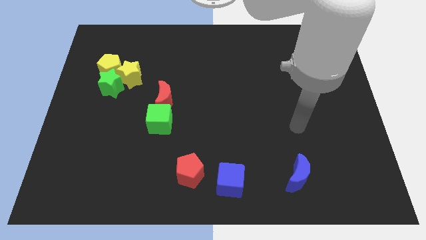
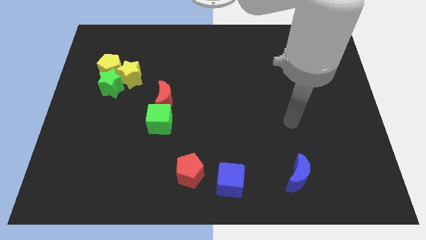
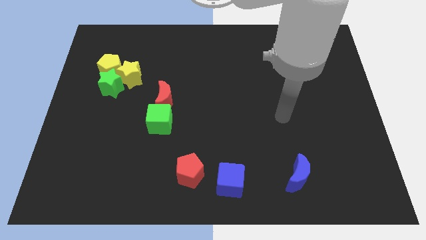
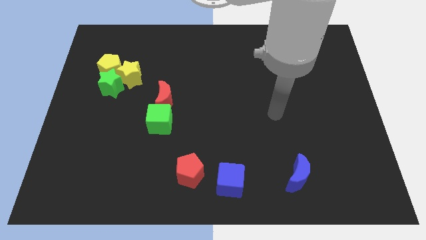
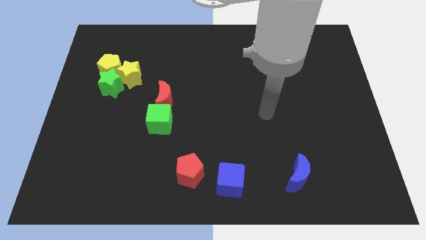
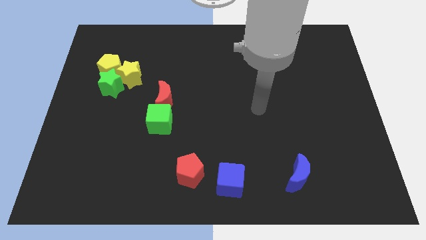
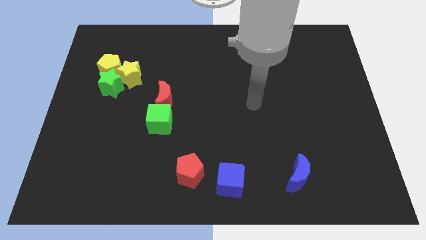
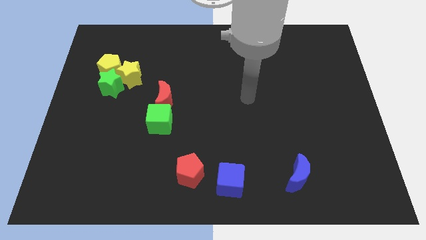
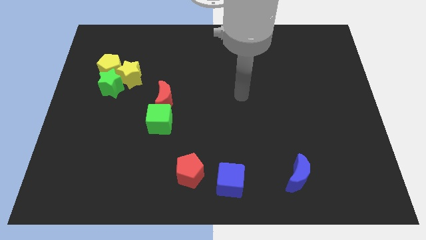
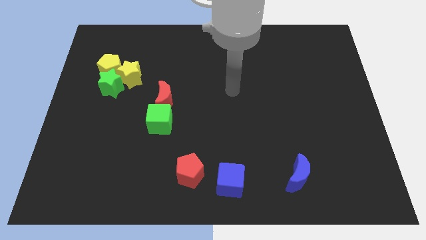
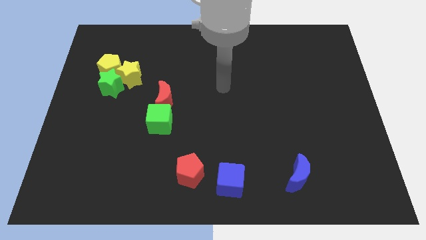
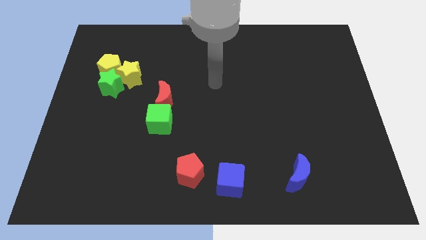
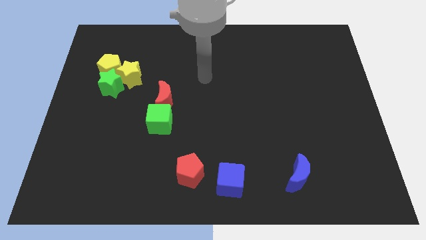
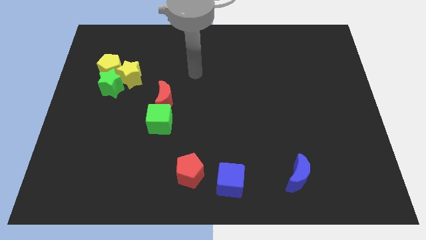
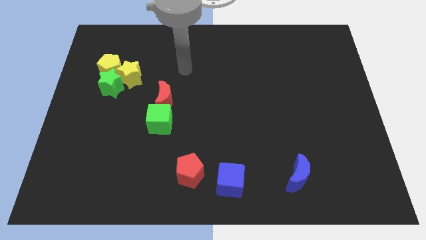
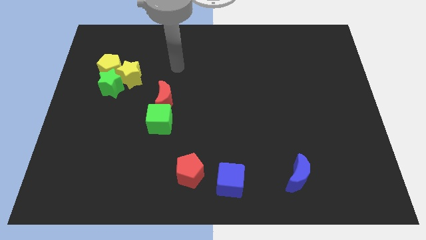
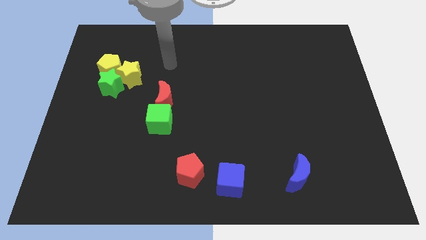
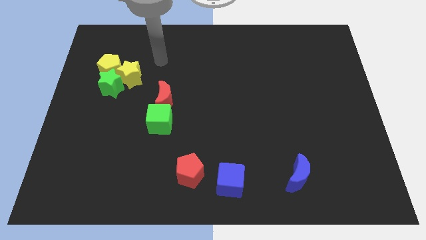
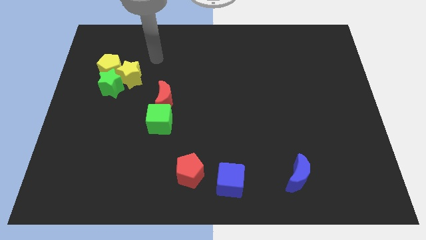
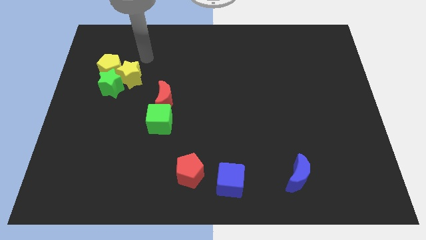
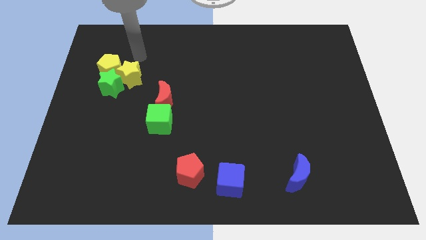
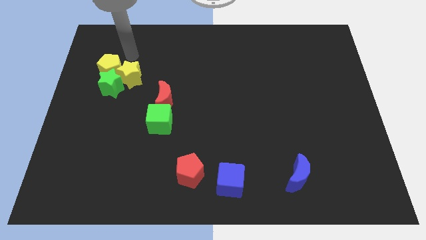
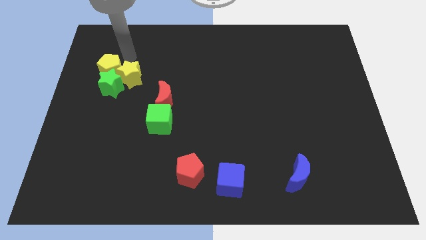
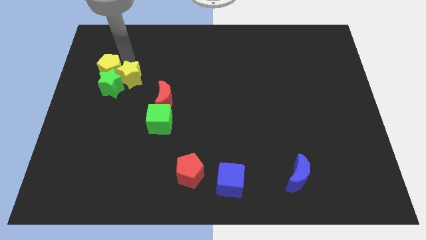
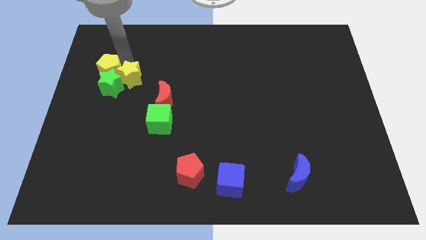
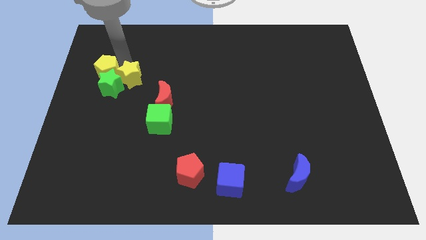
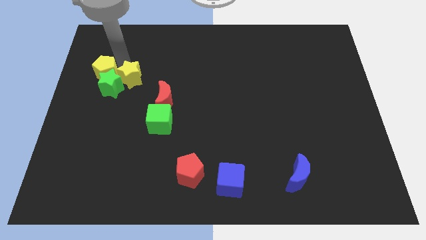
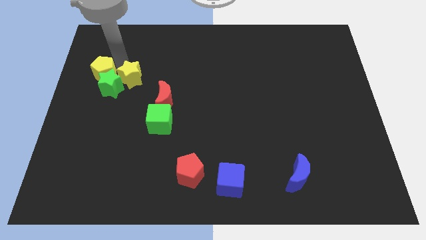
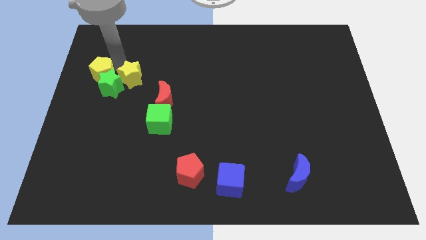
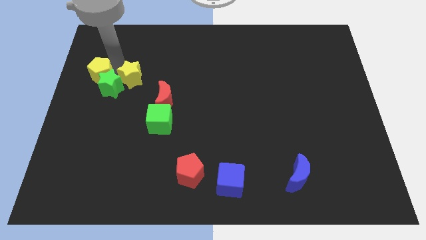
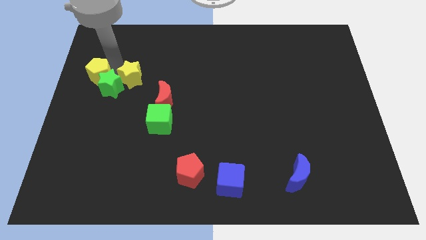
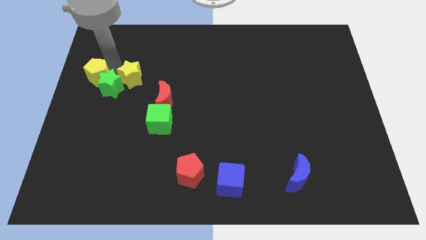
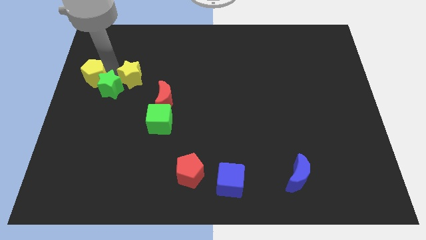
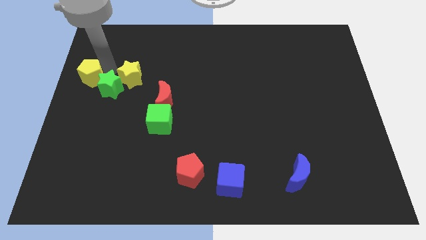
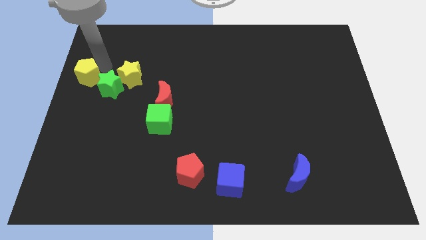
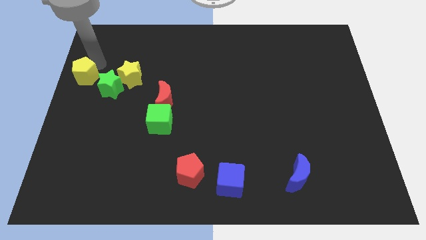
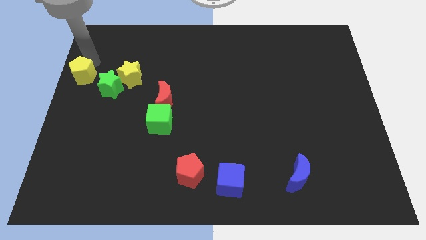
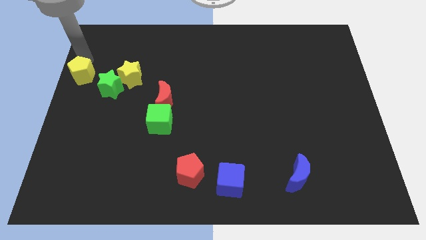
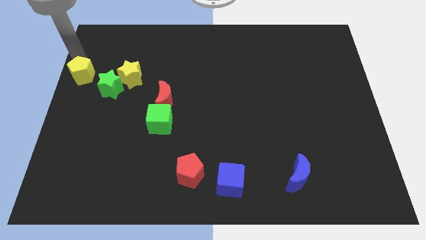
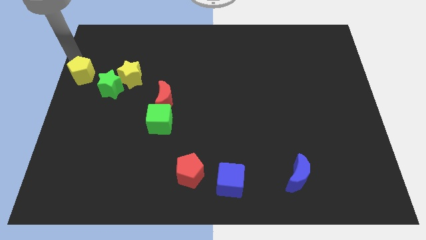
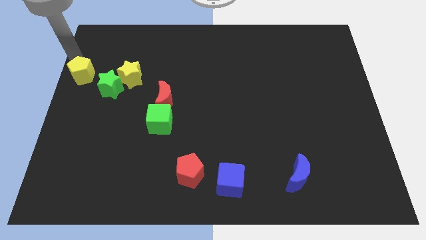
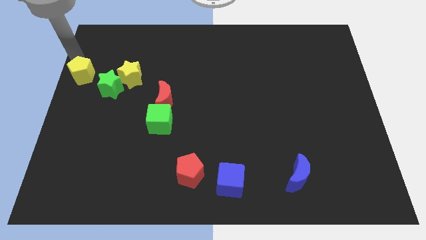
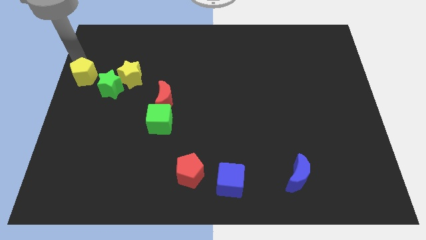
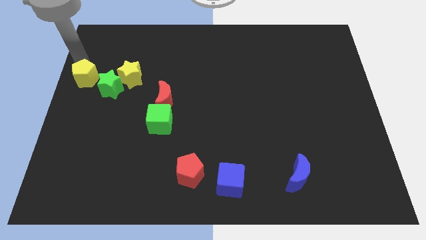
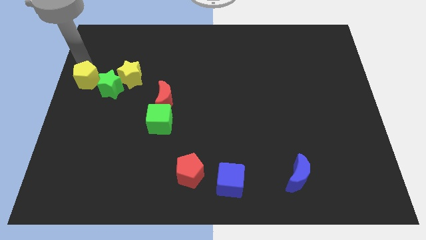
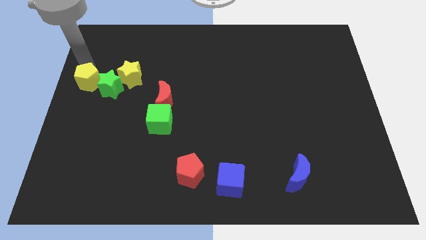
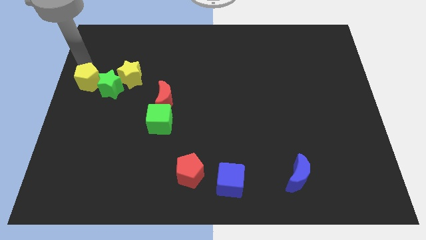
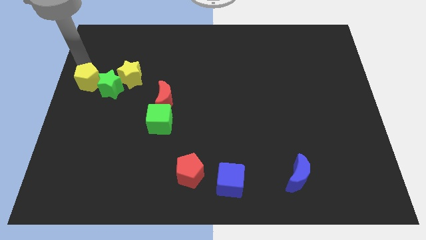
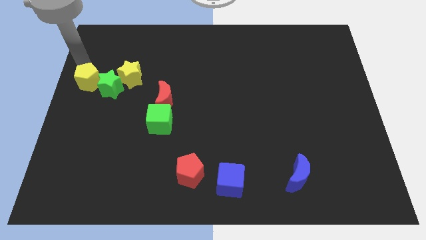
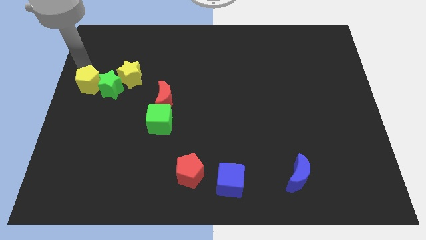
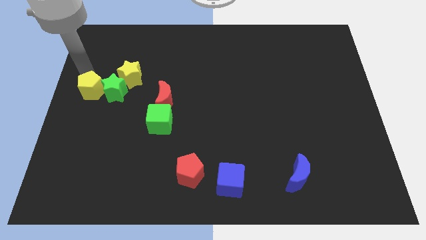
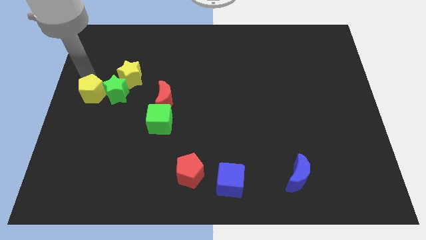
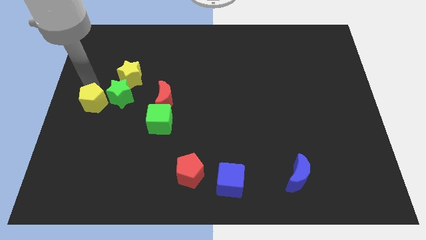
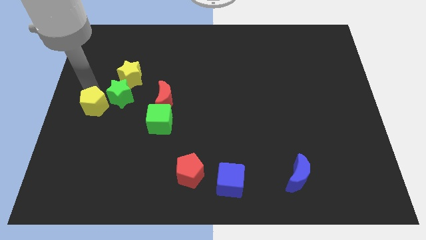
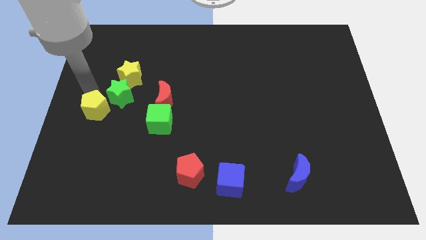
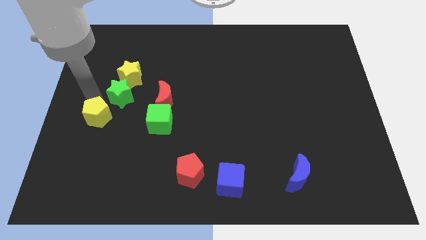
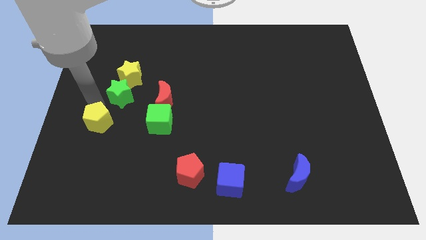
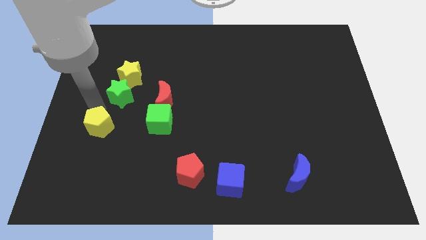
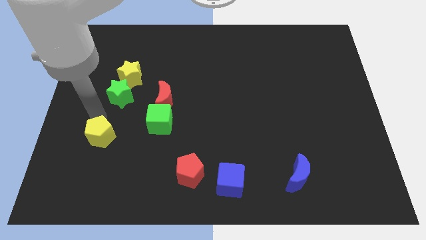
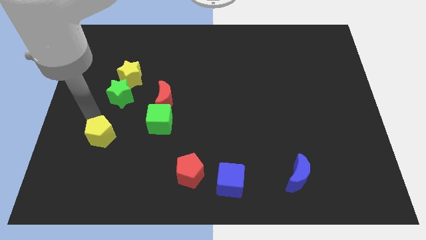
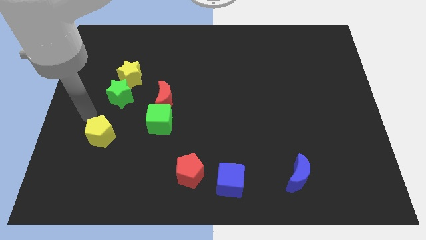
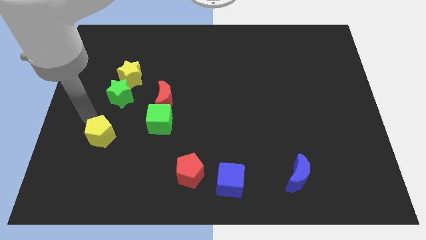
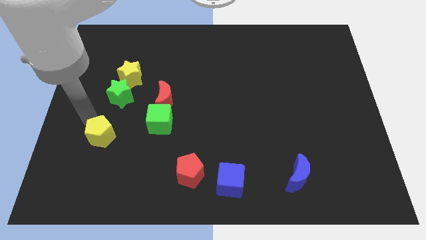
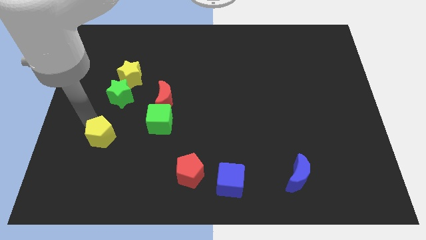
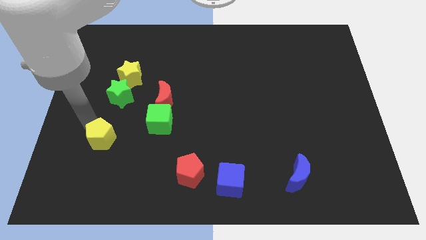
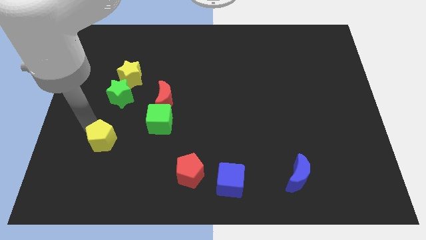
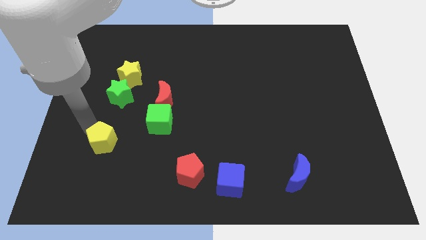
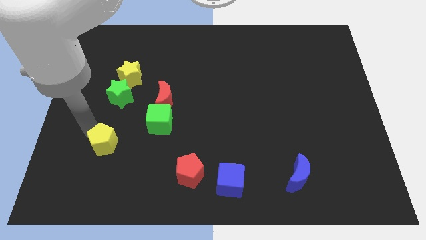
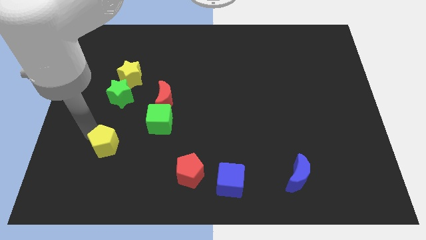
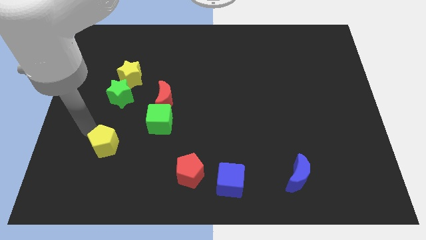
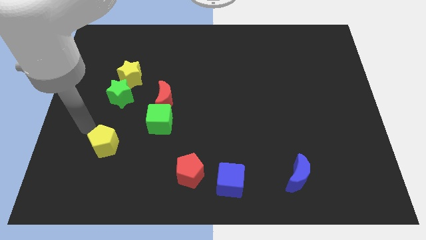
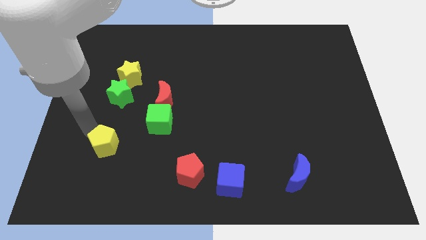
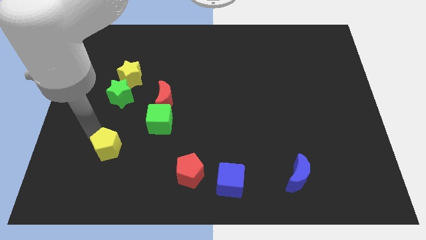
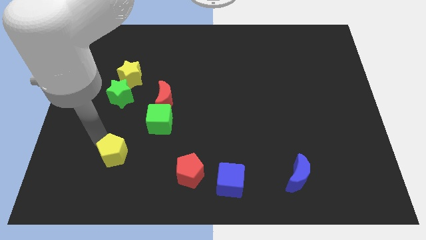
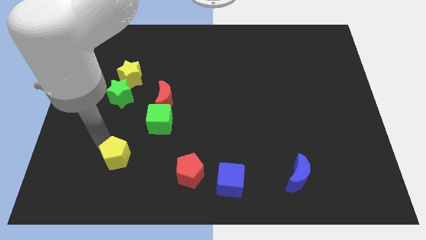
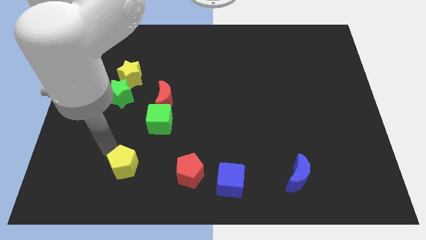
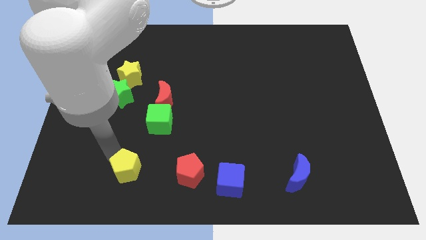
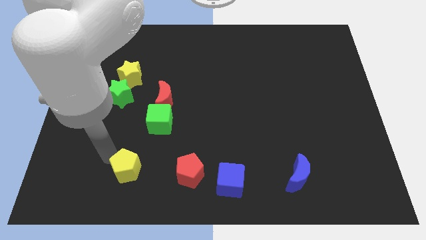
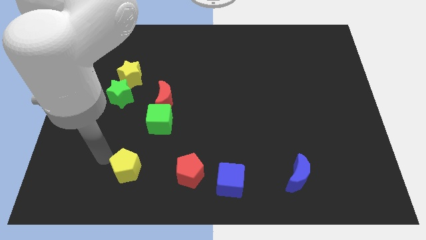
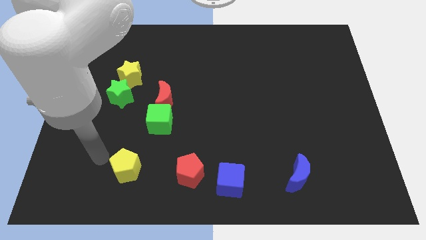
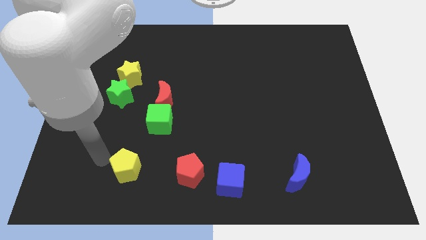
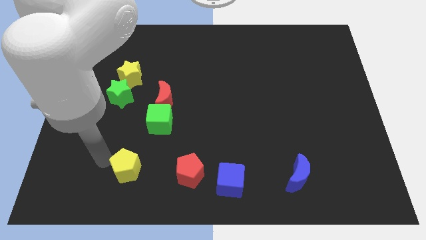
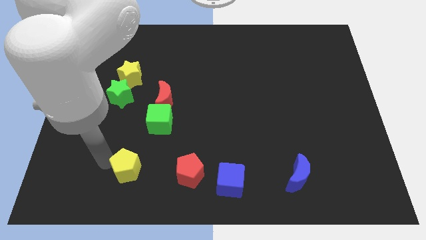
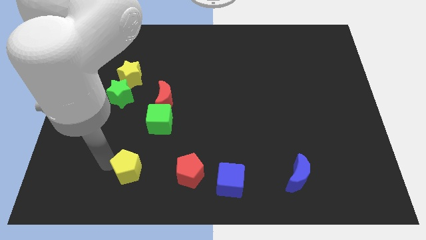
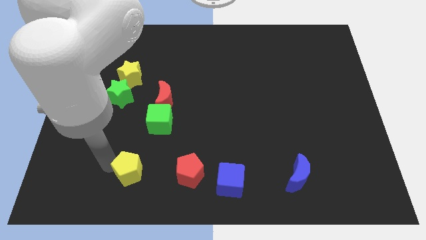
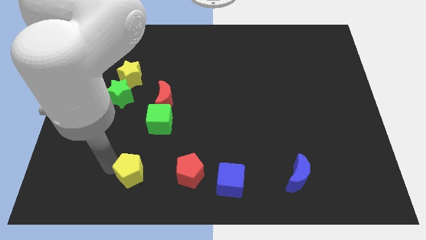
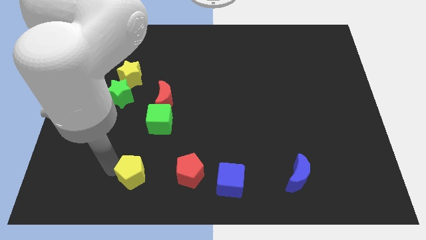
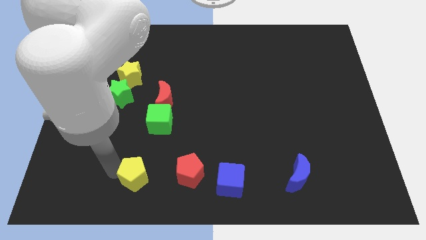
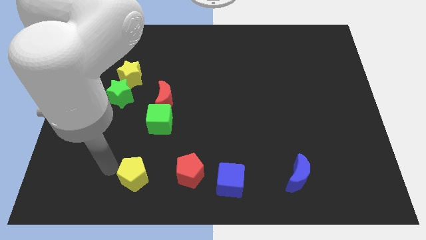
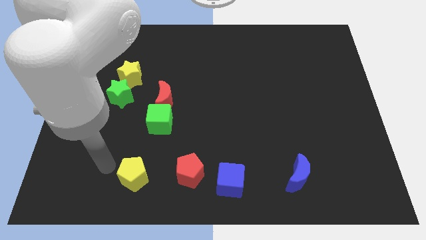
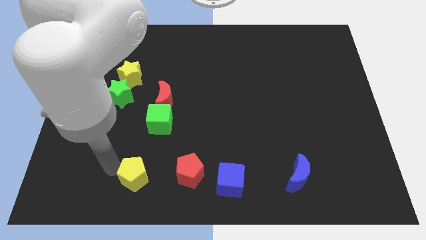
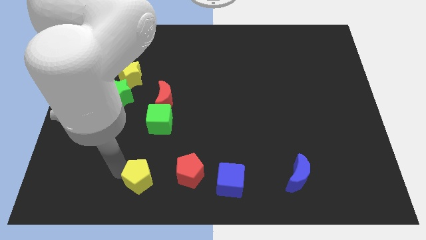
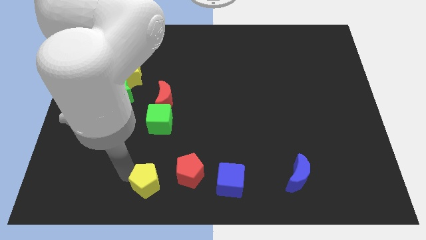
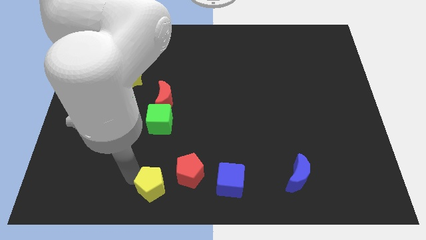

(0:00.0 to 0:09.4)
slide the yellow pentagon to the bottom
